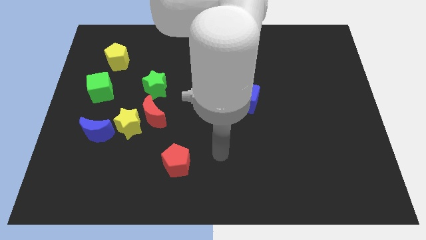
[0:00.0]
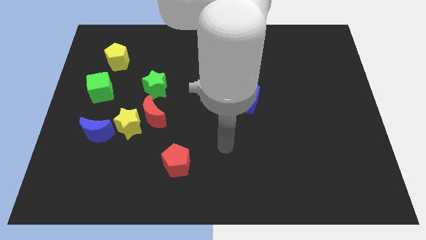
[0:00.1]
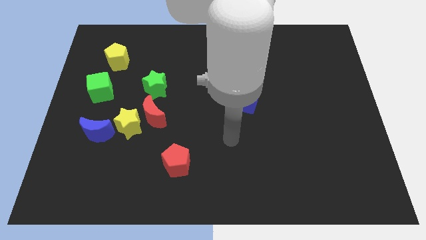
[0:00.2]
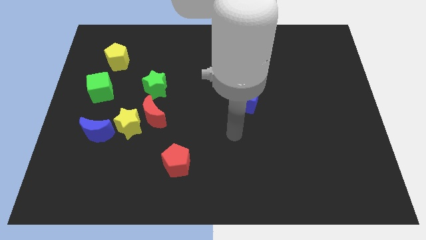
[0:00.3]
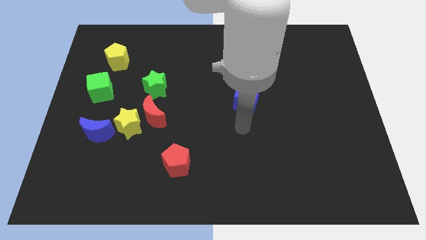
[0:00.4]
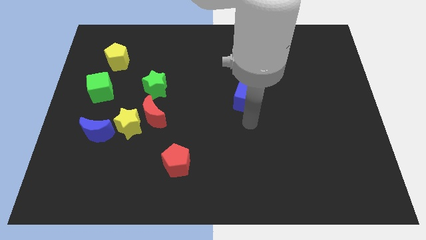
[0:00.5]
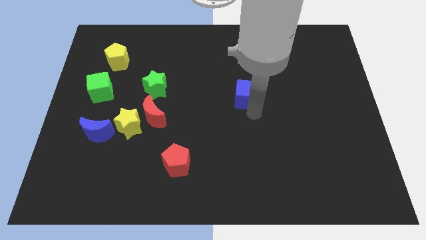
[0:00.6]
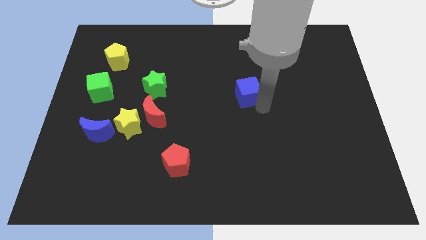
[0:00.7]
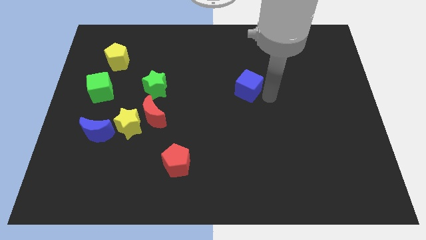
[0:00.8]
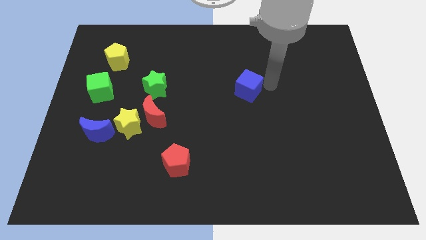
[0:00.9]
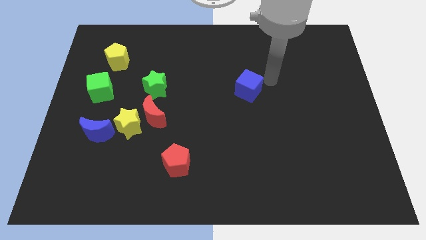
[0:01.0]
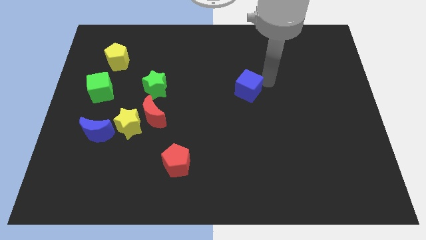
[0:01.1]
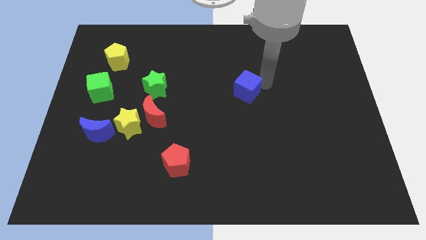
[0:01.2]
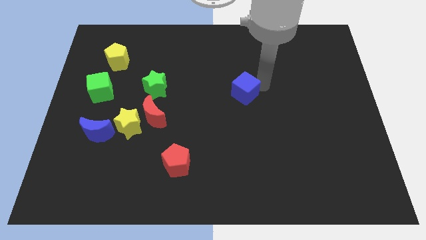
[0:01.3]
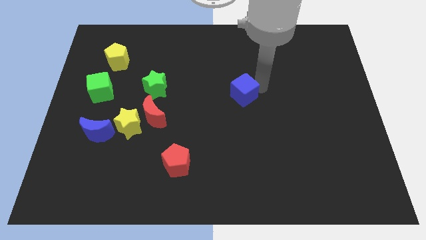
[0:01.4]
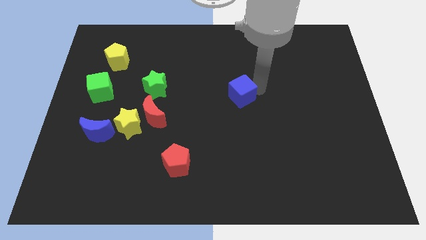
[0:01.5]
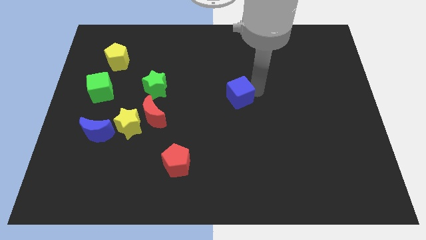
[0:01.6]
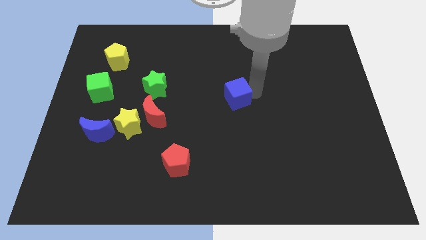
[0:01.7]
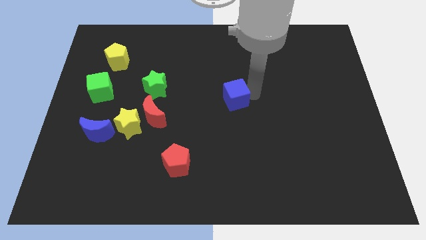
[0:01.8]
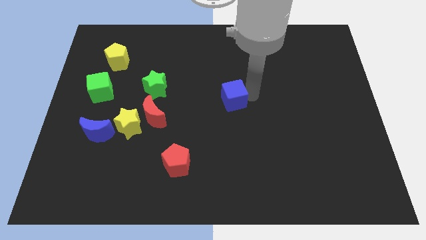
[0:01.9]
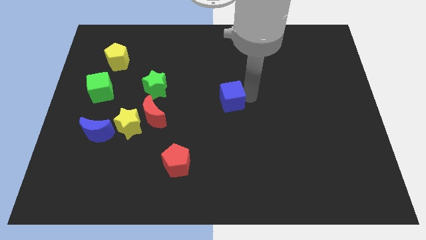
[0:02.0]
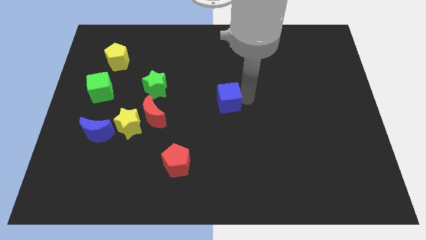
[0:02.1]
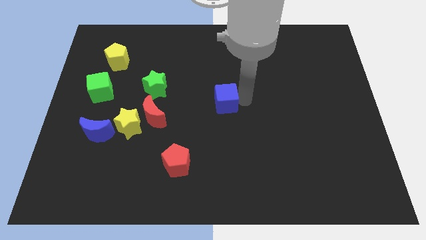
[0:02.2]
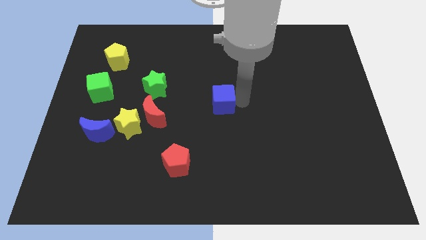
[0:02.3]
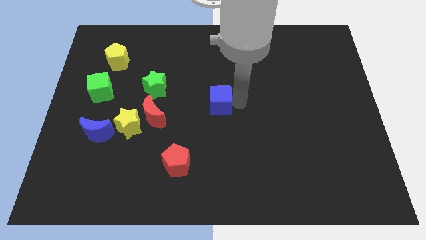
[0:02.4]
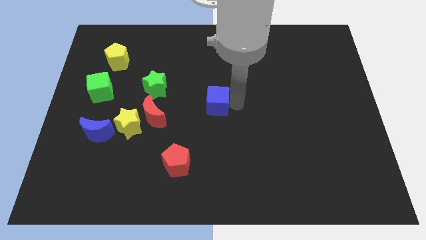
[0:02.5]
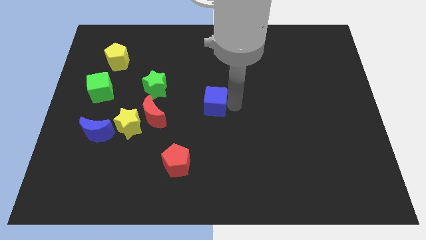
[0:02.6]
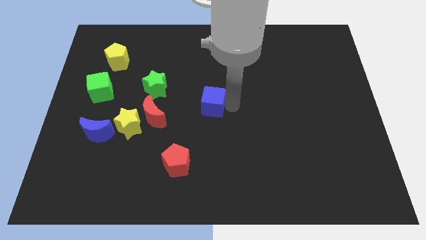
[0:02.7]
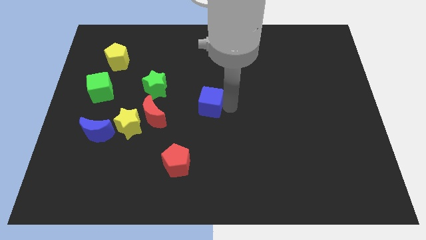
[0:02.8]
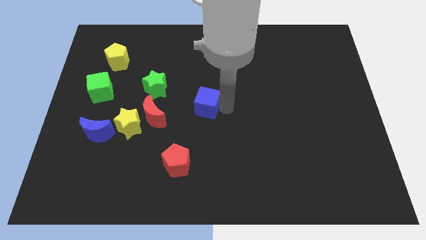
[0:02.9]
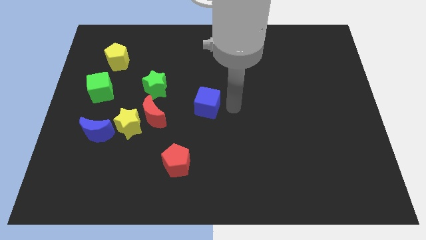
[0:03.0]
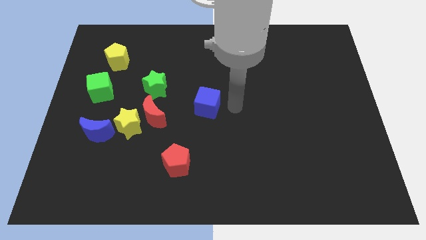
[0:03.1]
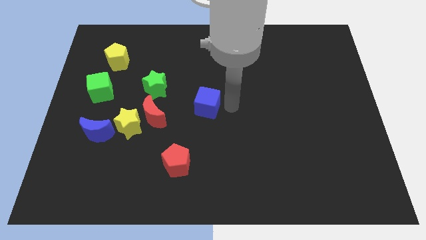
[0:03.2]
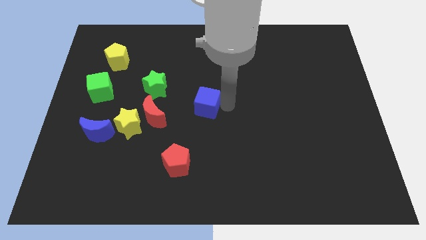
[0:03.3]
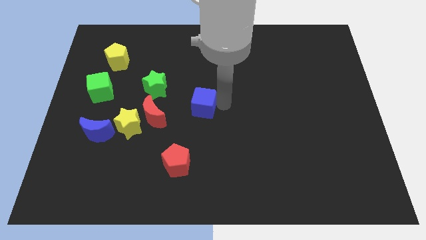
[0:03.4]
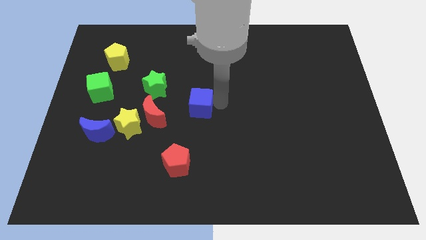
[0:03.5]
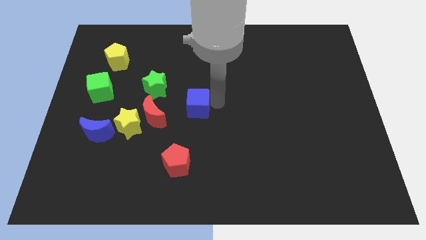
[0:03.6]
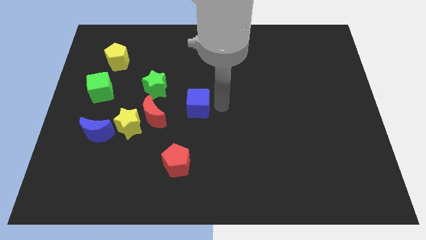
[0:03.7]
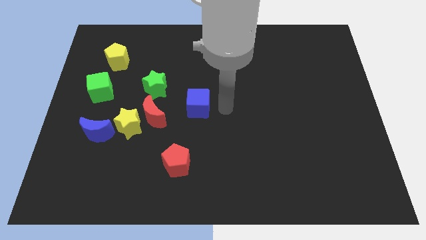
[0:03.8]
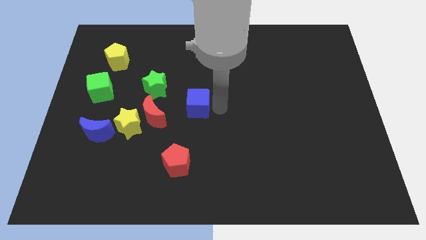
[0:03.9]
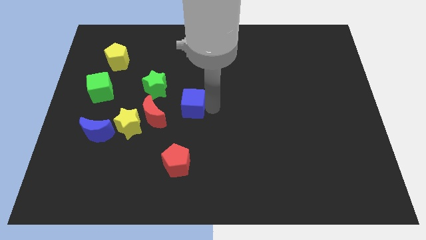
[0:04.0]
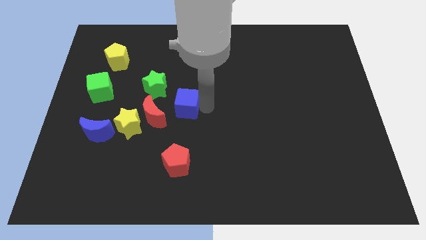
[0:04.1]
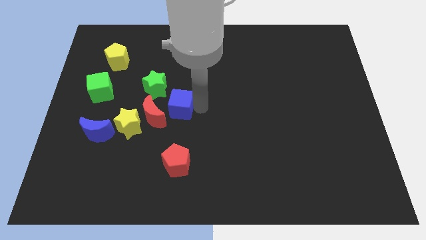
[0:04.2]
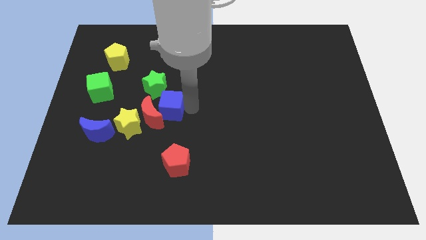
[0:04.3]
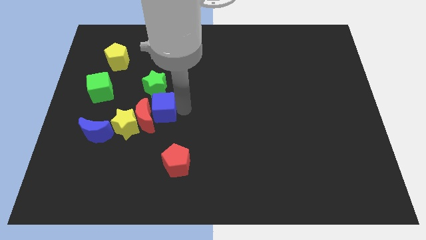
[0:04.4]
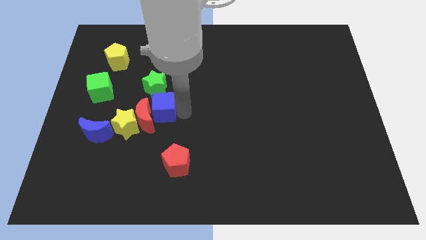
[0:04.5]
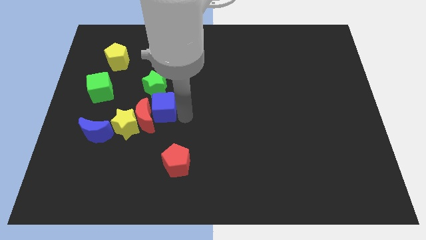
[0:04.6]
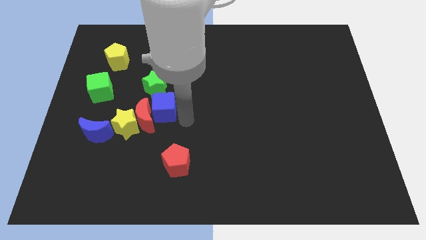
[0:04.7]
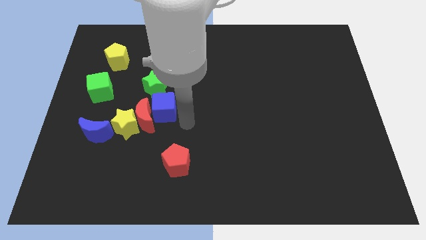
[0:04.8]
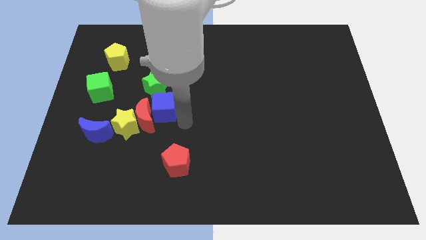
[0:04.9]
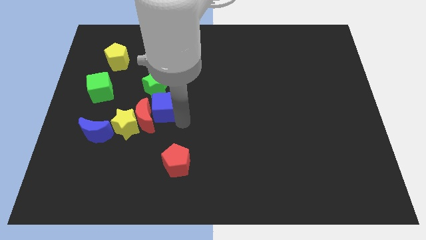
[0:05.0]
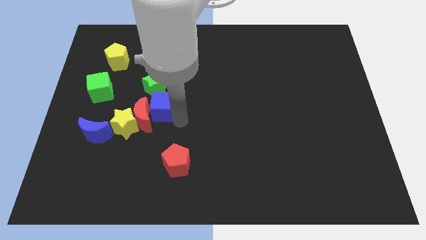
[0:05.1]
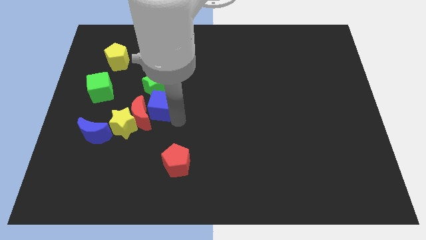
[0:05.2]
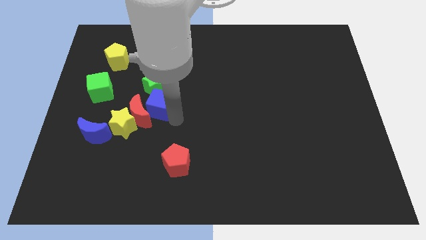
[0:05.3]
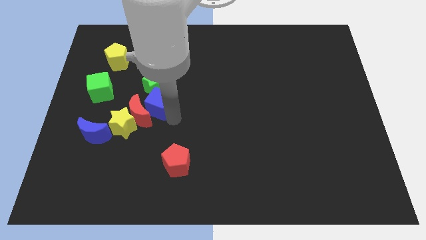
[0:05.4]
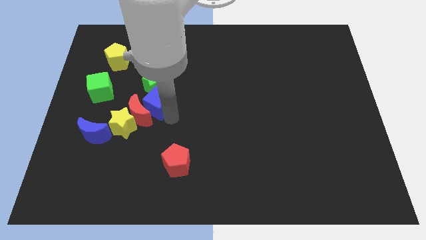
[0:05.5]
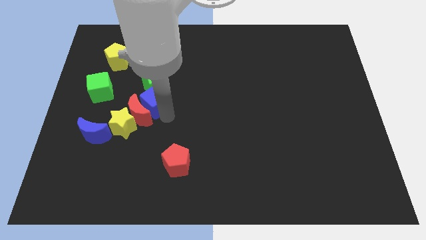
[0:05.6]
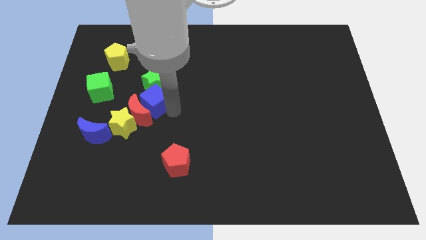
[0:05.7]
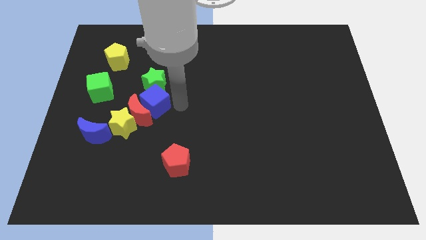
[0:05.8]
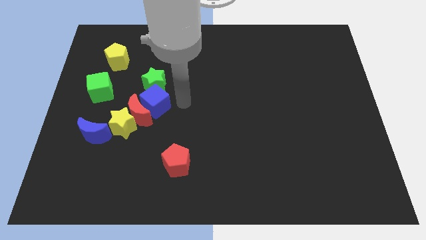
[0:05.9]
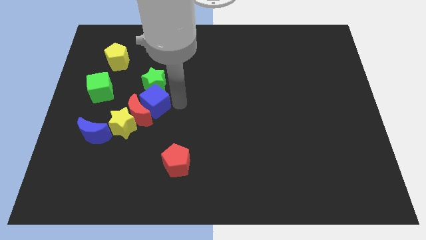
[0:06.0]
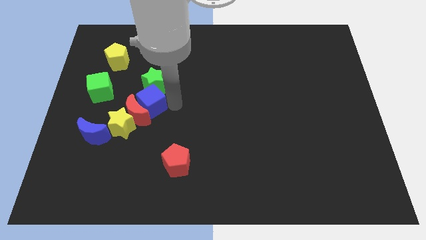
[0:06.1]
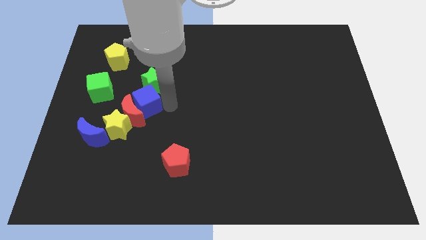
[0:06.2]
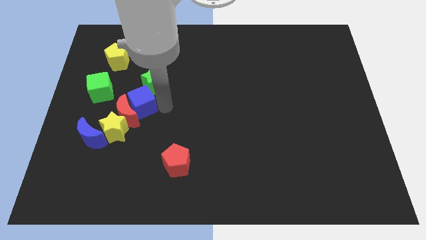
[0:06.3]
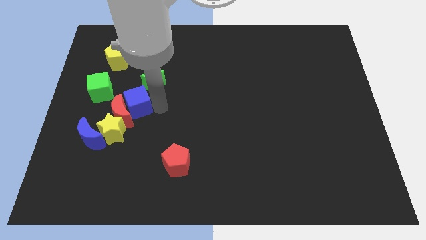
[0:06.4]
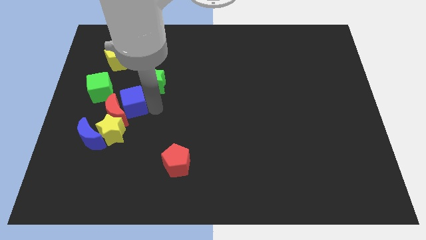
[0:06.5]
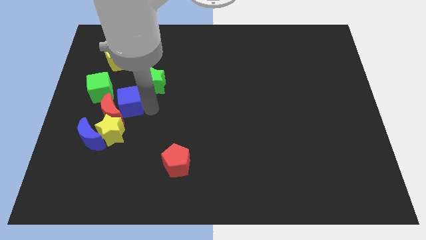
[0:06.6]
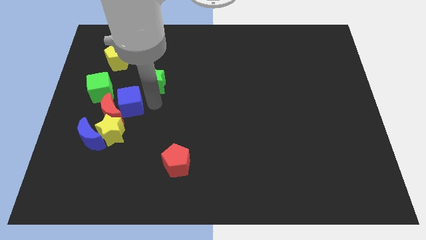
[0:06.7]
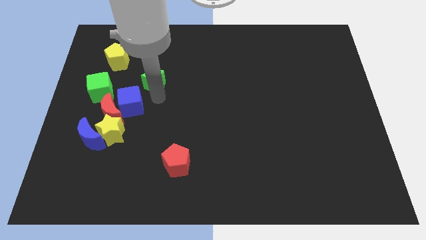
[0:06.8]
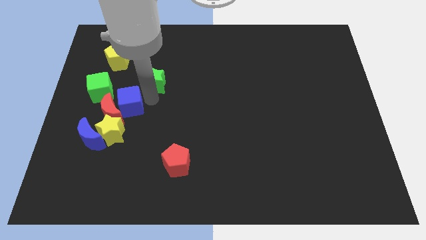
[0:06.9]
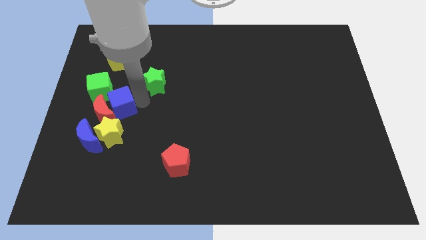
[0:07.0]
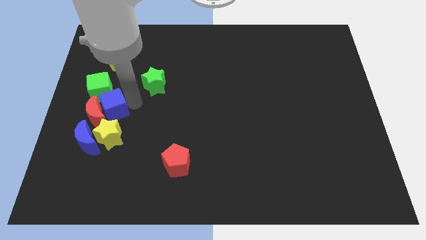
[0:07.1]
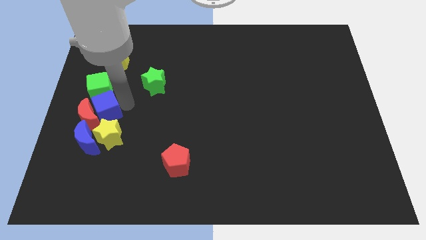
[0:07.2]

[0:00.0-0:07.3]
slide the blue cube diagonally up and to the left of the yellow star
